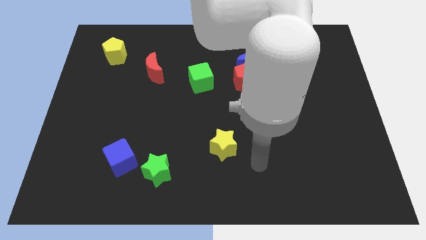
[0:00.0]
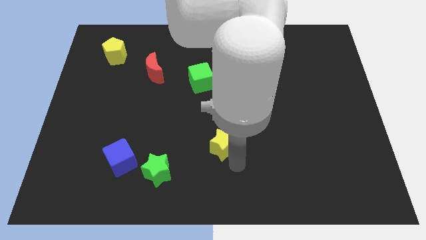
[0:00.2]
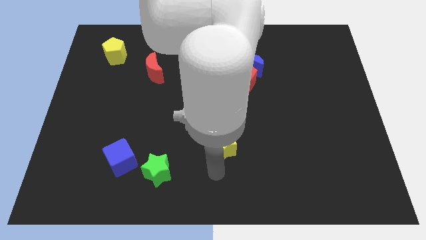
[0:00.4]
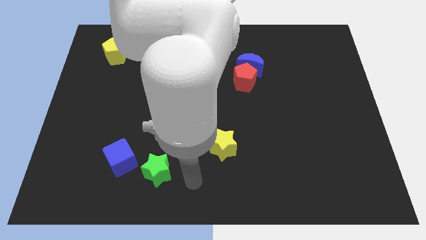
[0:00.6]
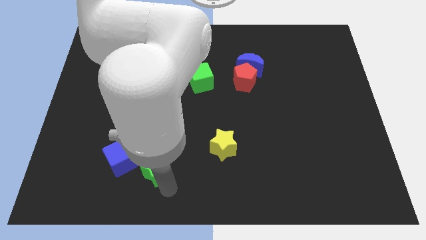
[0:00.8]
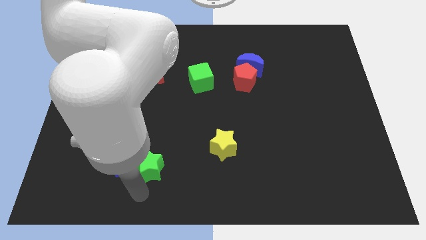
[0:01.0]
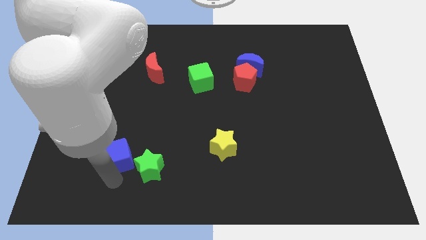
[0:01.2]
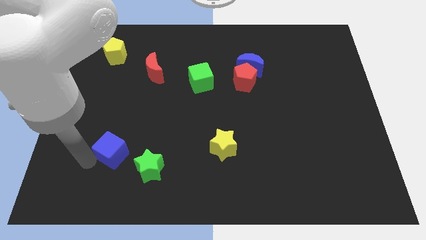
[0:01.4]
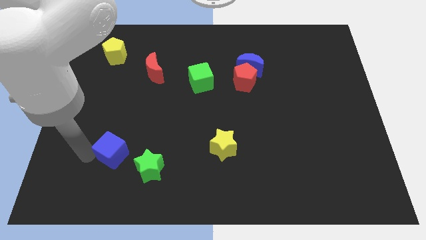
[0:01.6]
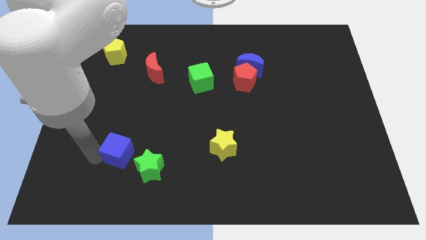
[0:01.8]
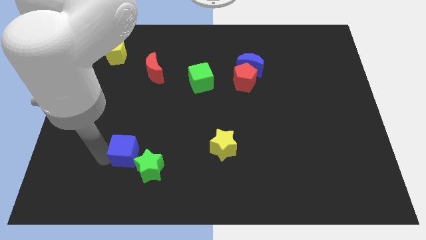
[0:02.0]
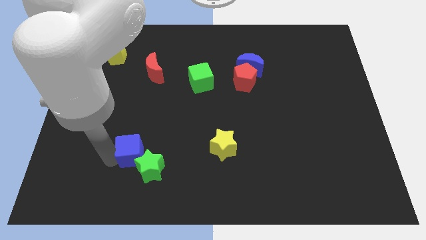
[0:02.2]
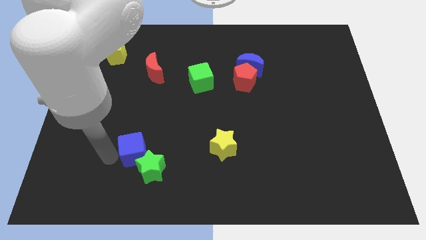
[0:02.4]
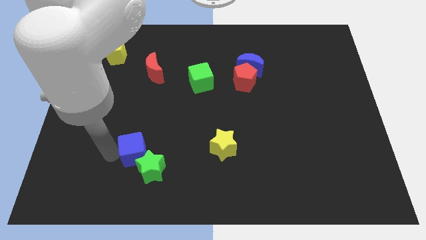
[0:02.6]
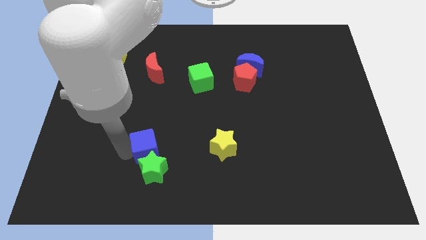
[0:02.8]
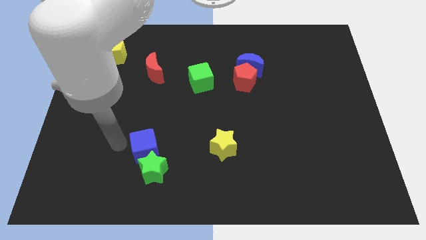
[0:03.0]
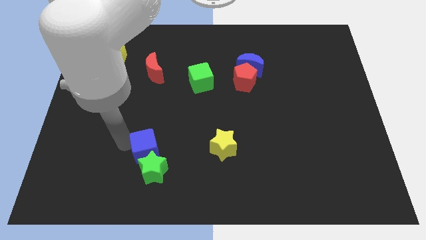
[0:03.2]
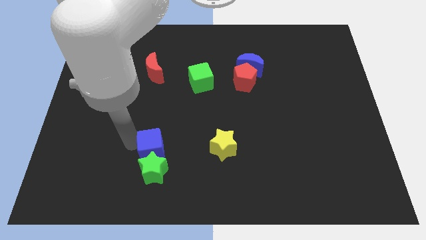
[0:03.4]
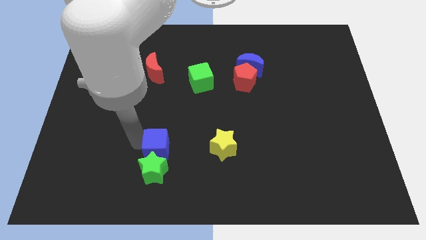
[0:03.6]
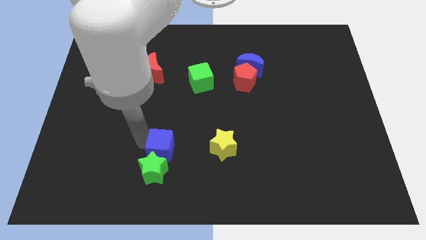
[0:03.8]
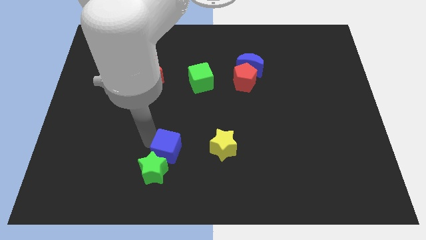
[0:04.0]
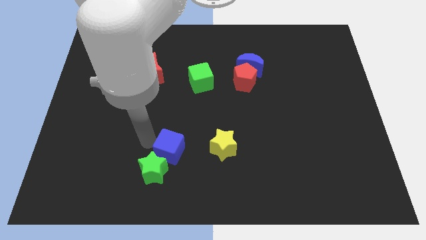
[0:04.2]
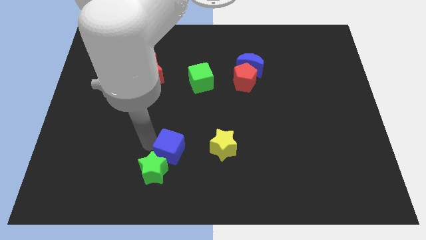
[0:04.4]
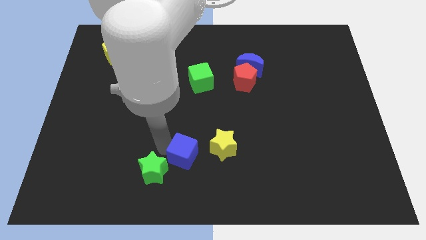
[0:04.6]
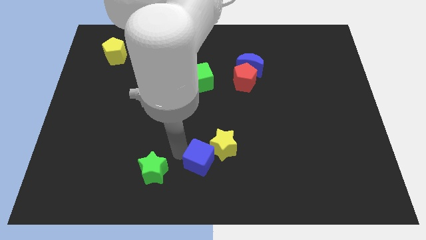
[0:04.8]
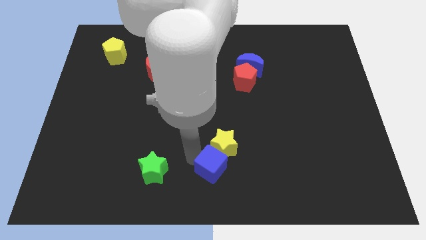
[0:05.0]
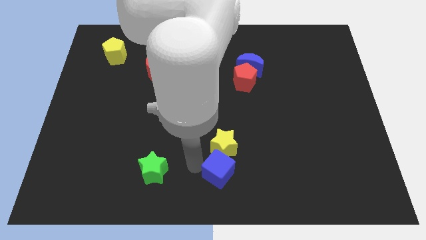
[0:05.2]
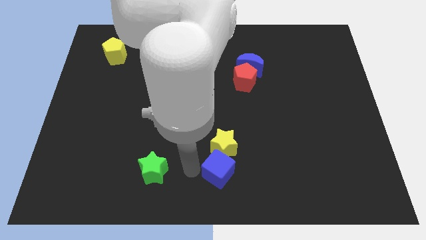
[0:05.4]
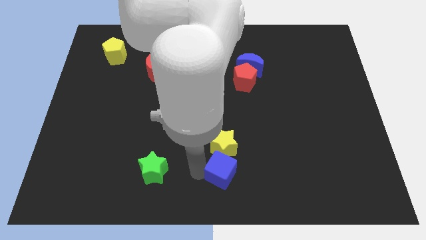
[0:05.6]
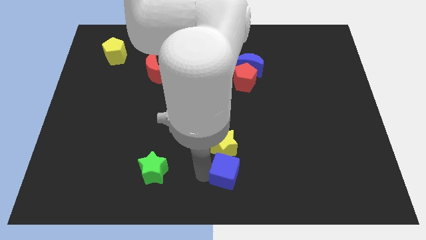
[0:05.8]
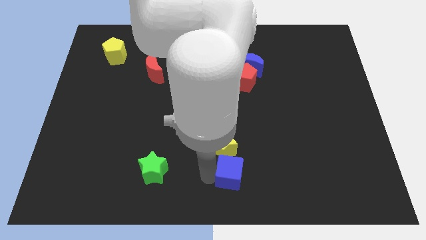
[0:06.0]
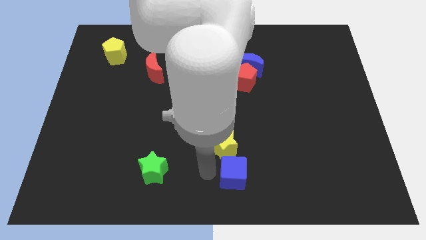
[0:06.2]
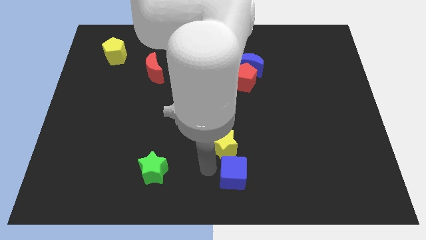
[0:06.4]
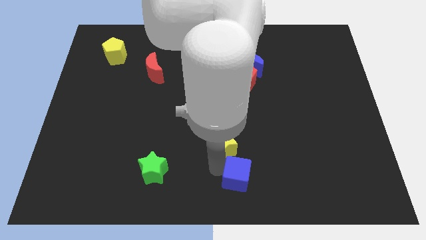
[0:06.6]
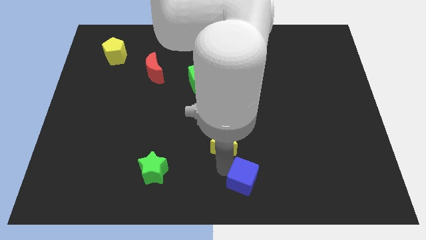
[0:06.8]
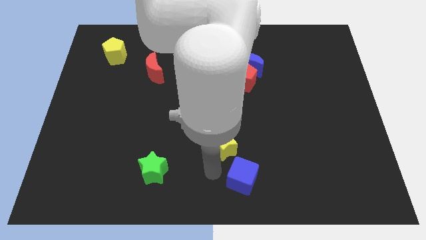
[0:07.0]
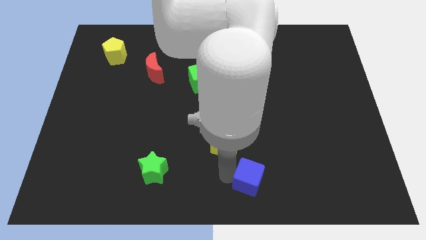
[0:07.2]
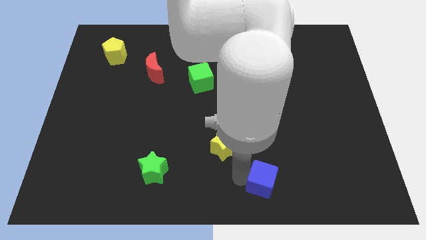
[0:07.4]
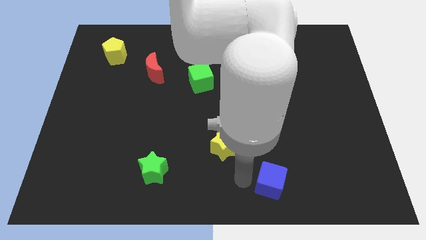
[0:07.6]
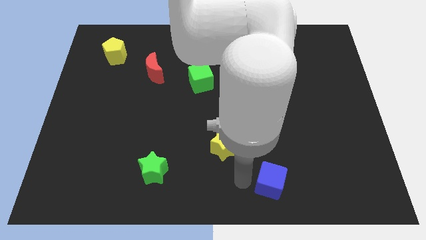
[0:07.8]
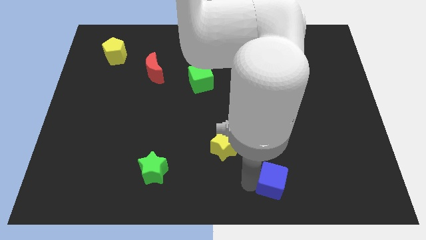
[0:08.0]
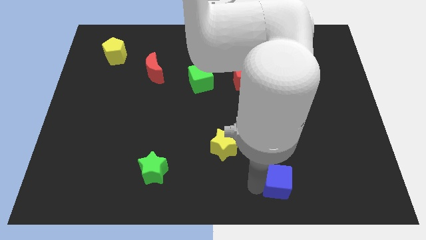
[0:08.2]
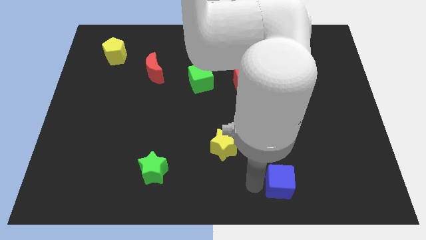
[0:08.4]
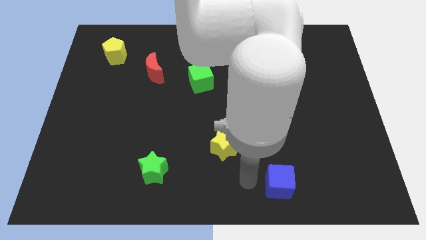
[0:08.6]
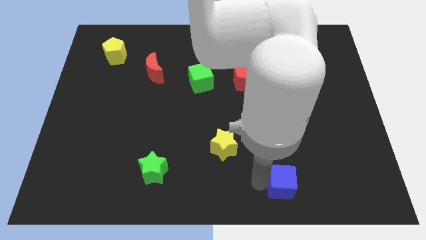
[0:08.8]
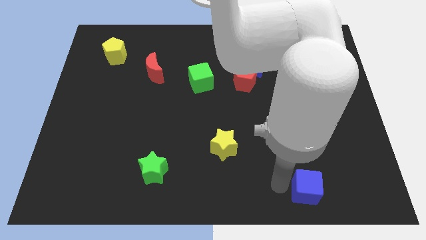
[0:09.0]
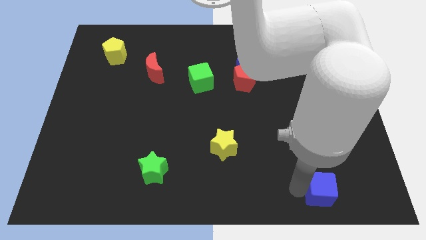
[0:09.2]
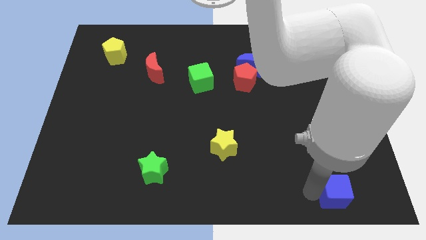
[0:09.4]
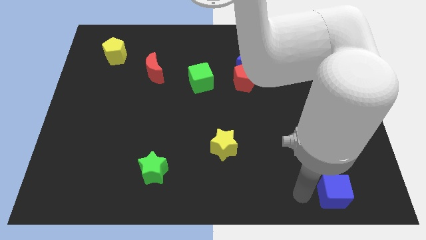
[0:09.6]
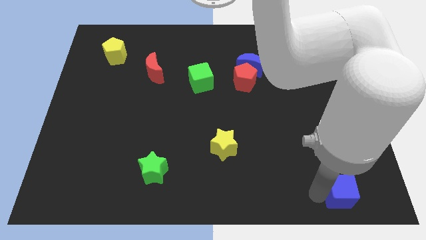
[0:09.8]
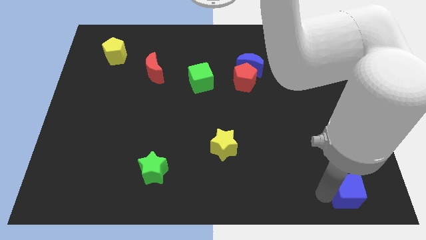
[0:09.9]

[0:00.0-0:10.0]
slide the blue cube to the lower right corner

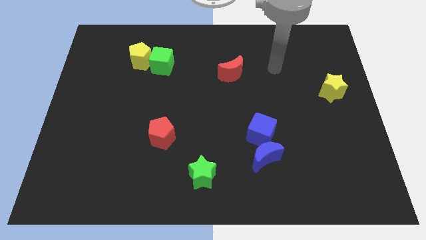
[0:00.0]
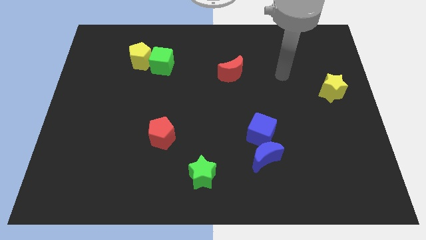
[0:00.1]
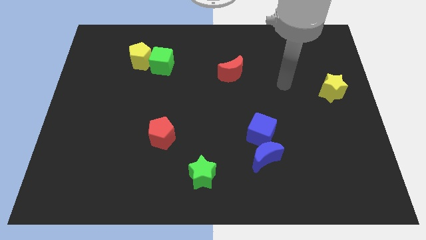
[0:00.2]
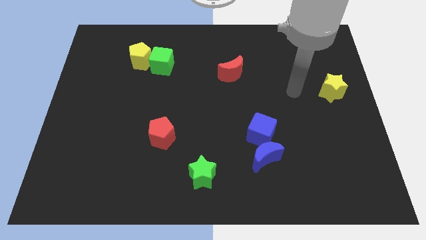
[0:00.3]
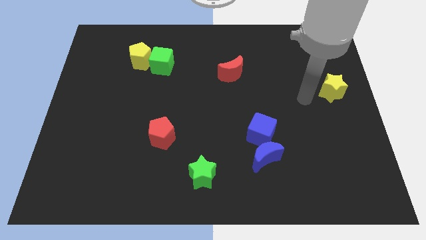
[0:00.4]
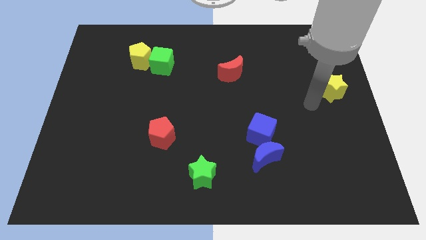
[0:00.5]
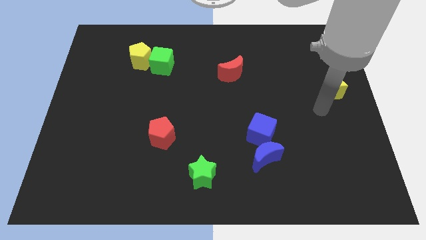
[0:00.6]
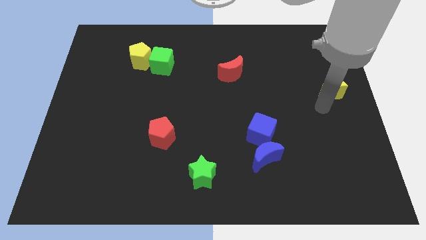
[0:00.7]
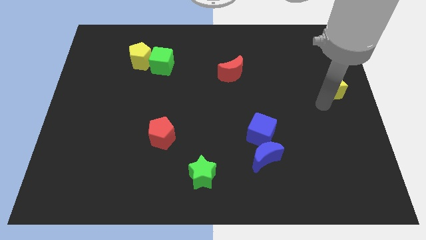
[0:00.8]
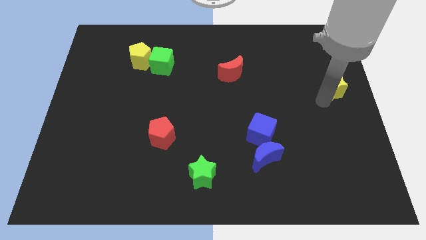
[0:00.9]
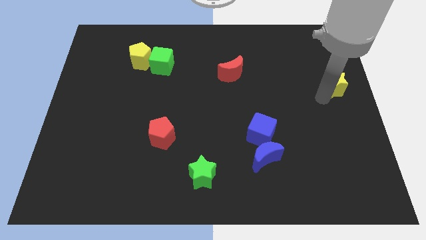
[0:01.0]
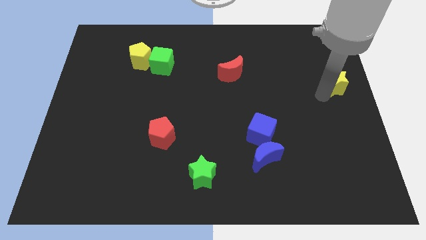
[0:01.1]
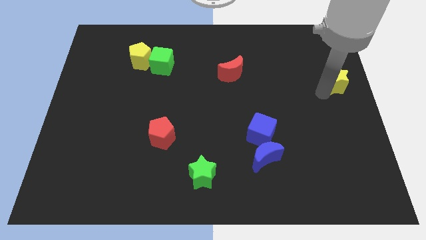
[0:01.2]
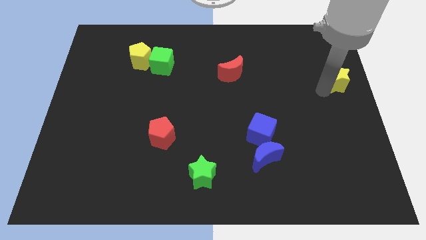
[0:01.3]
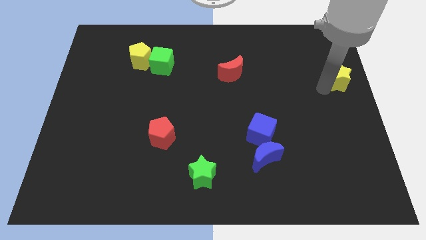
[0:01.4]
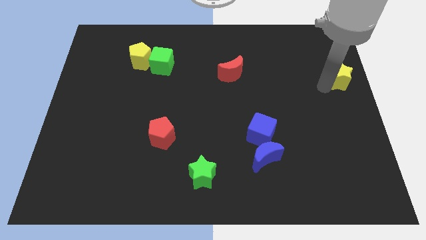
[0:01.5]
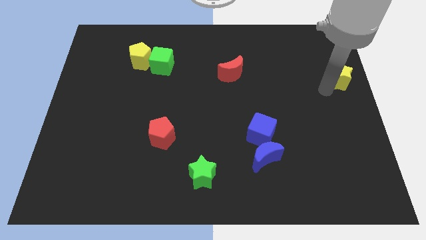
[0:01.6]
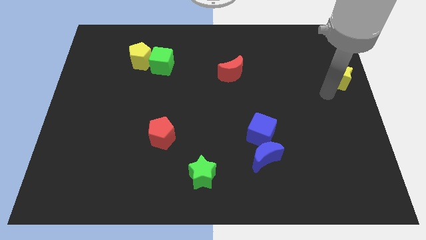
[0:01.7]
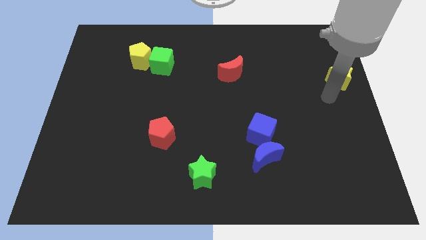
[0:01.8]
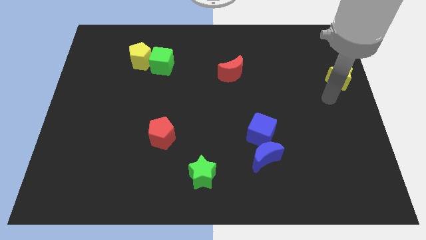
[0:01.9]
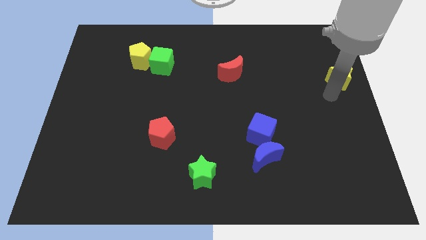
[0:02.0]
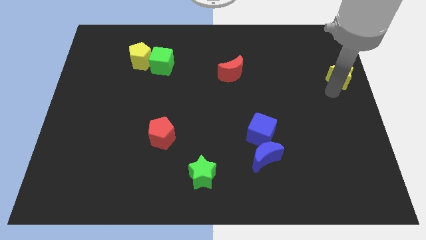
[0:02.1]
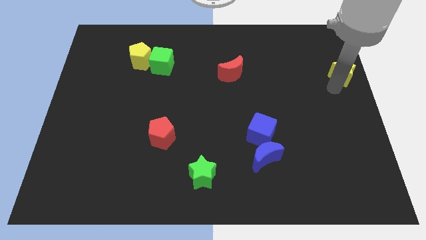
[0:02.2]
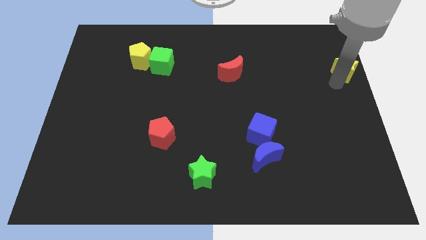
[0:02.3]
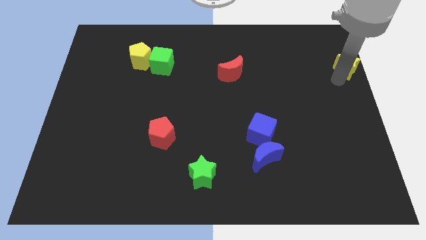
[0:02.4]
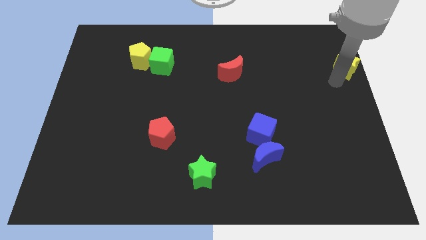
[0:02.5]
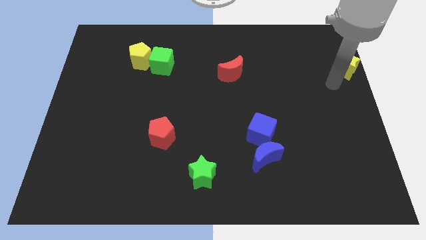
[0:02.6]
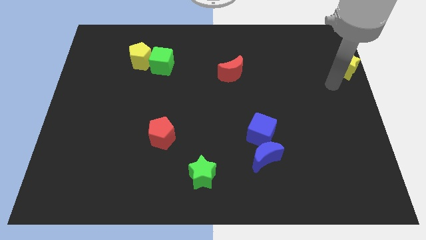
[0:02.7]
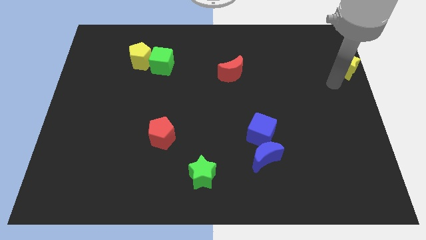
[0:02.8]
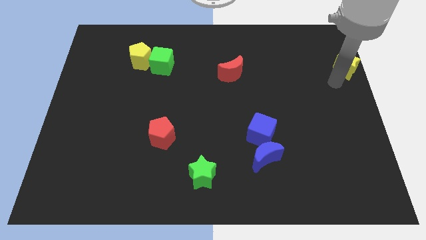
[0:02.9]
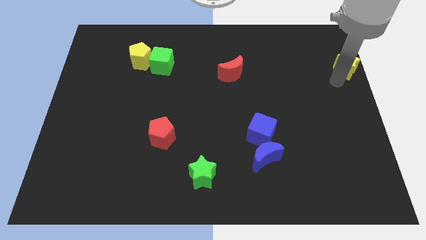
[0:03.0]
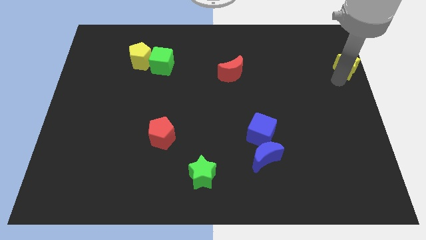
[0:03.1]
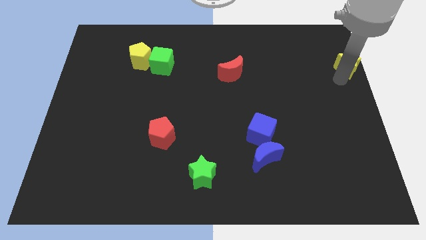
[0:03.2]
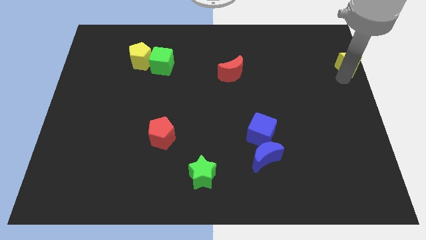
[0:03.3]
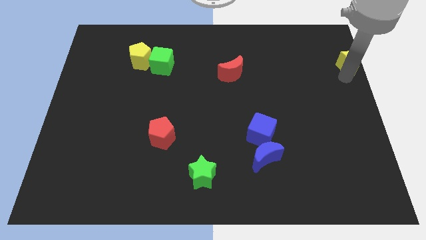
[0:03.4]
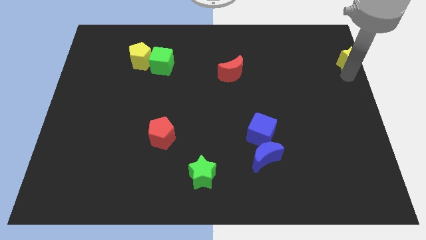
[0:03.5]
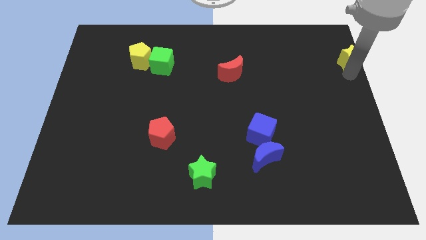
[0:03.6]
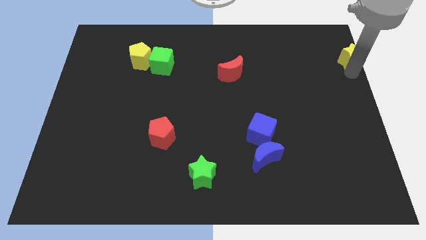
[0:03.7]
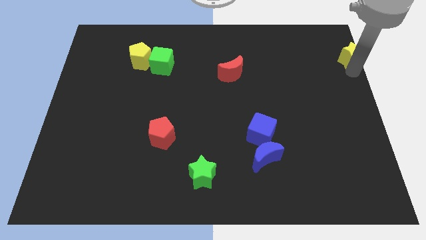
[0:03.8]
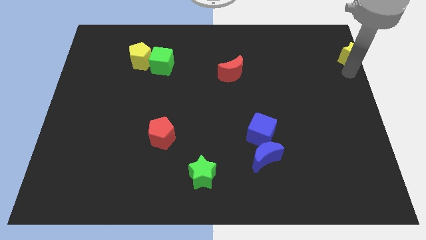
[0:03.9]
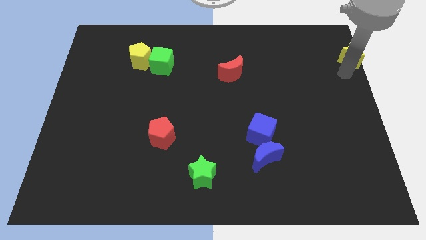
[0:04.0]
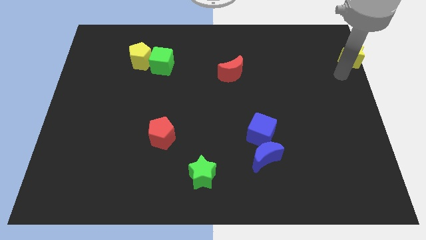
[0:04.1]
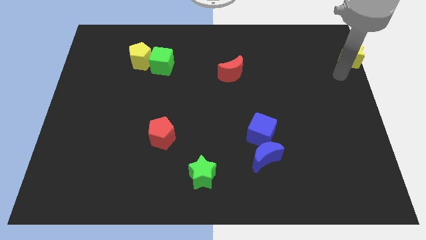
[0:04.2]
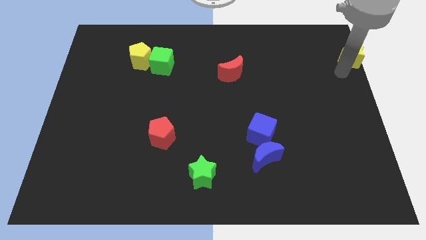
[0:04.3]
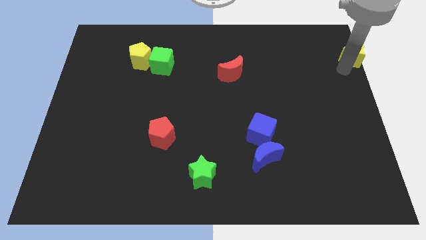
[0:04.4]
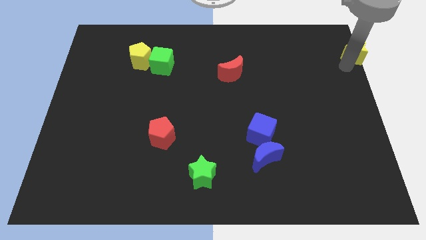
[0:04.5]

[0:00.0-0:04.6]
slide the yellow star to the top right
